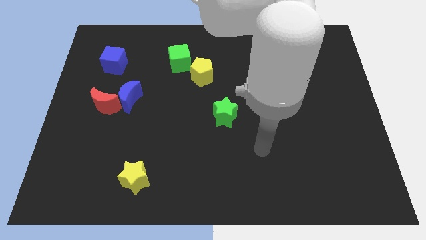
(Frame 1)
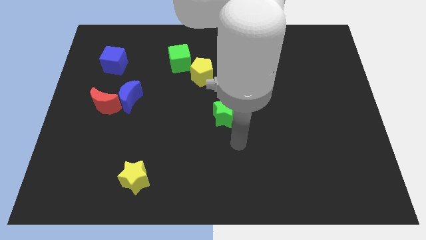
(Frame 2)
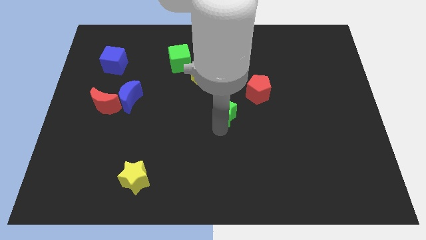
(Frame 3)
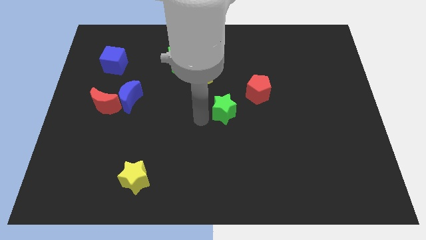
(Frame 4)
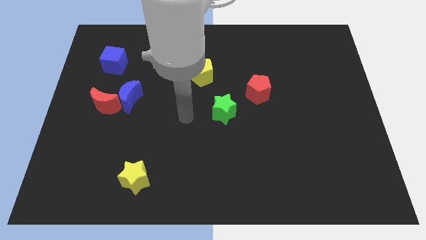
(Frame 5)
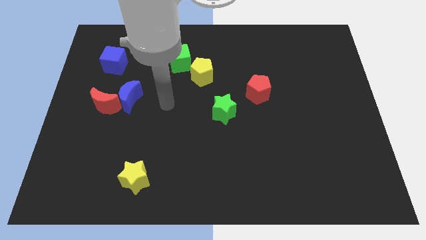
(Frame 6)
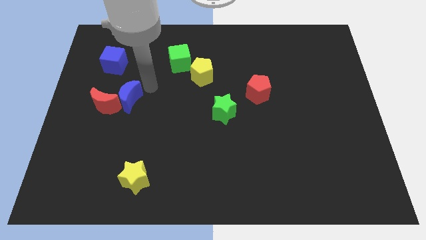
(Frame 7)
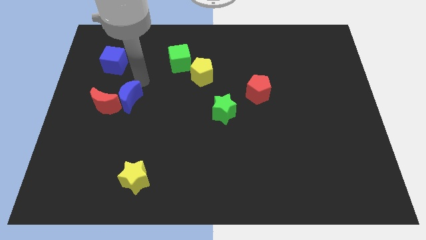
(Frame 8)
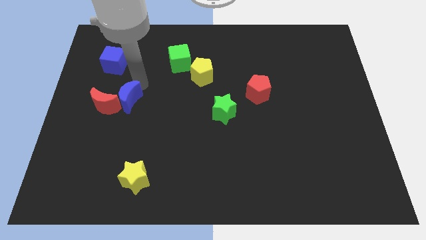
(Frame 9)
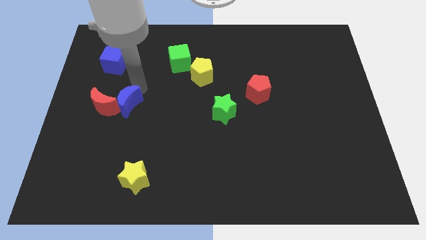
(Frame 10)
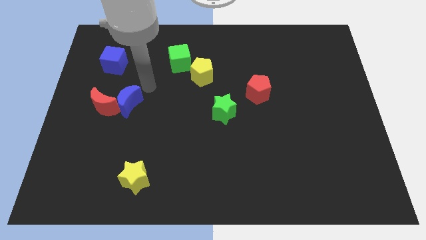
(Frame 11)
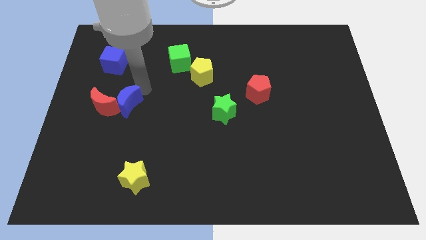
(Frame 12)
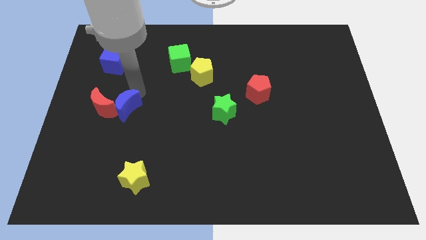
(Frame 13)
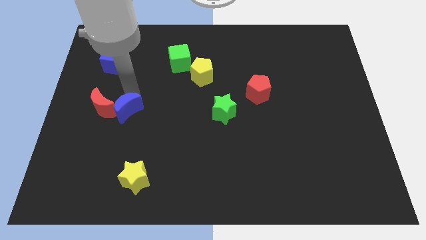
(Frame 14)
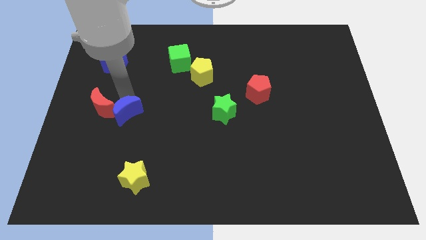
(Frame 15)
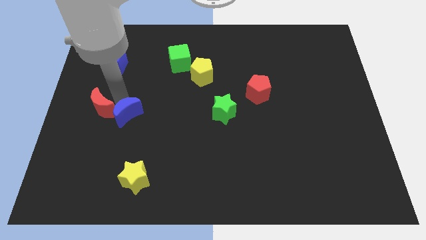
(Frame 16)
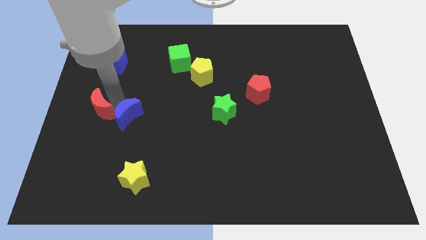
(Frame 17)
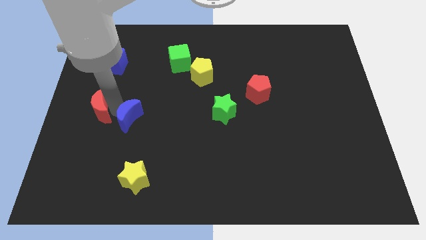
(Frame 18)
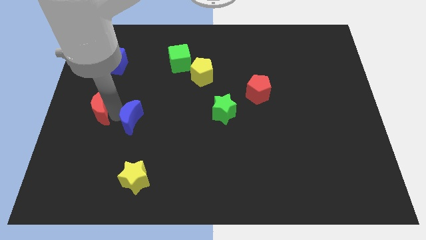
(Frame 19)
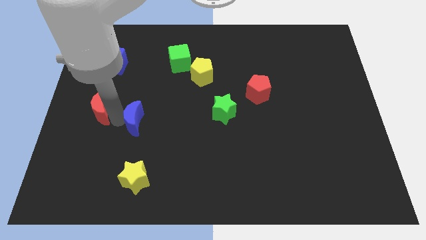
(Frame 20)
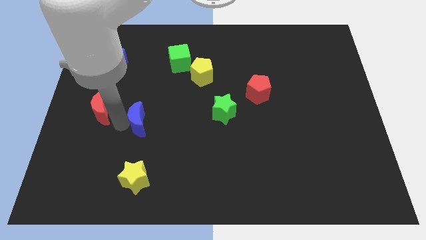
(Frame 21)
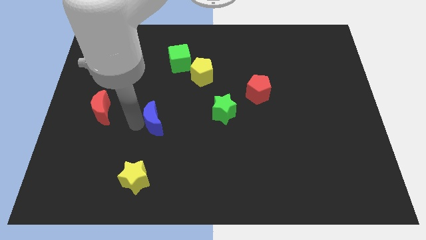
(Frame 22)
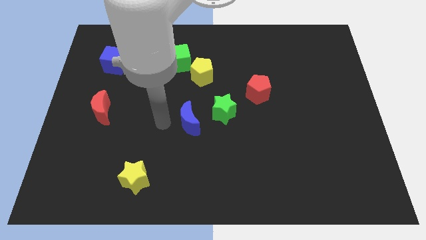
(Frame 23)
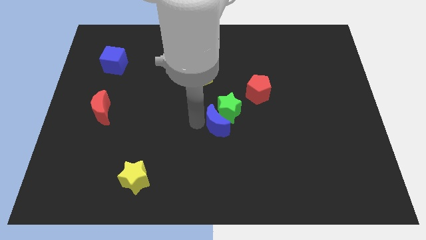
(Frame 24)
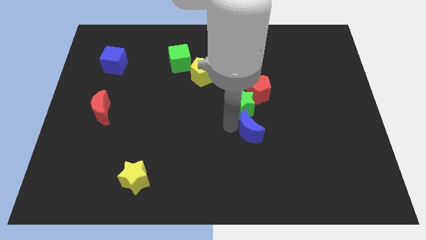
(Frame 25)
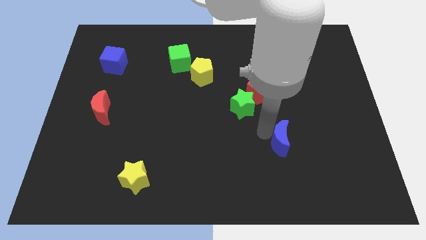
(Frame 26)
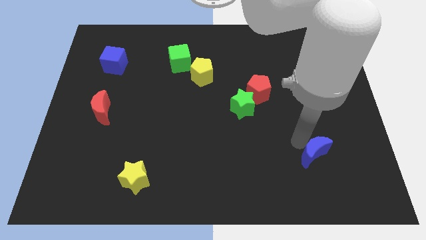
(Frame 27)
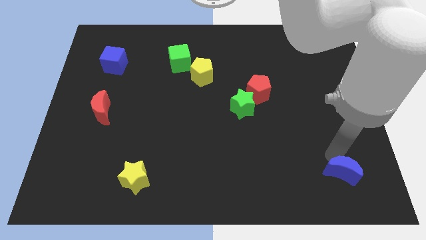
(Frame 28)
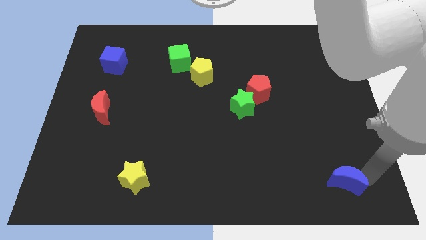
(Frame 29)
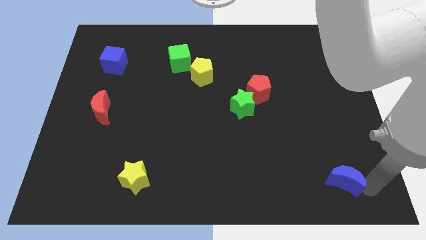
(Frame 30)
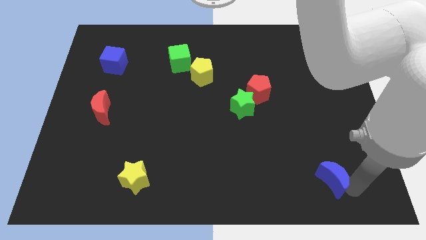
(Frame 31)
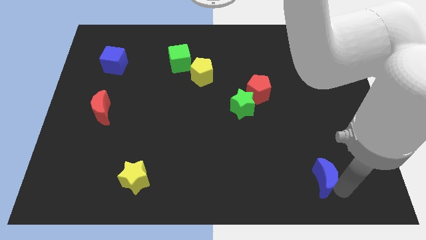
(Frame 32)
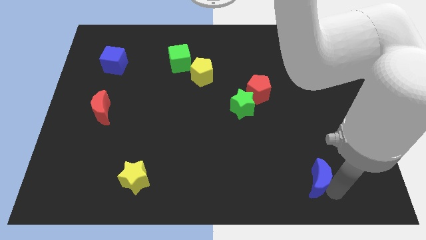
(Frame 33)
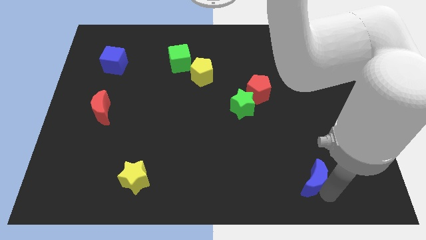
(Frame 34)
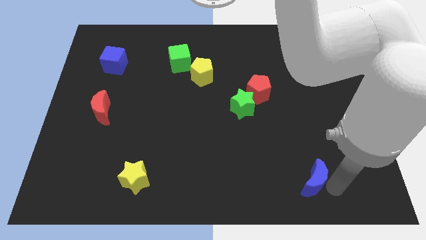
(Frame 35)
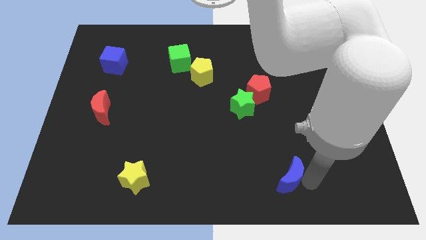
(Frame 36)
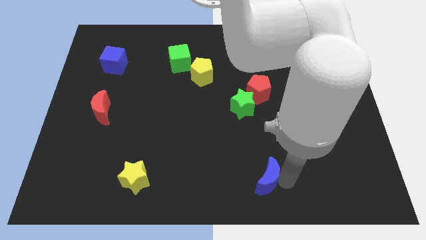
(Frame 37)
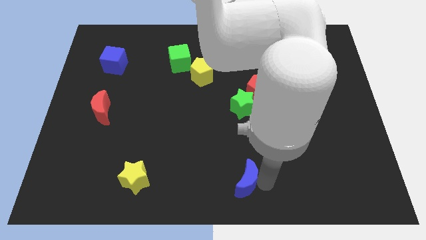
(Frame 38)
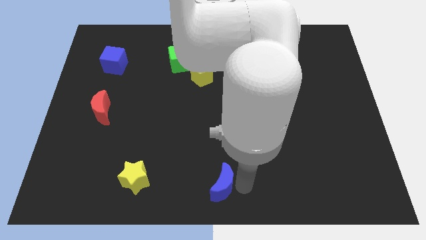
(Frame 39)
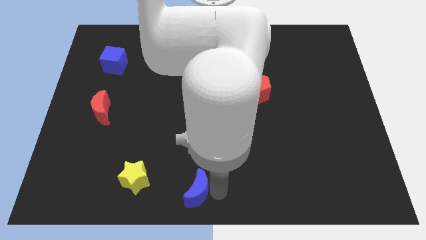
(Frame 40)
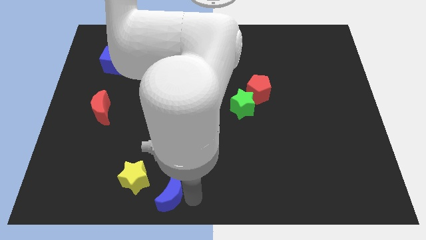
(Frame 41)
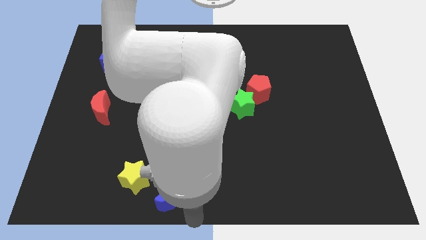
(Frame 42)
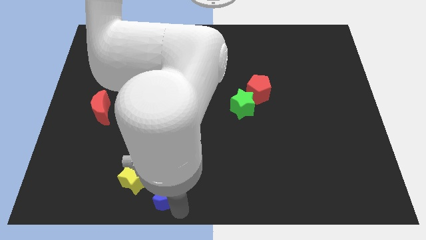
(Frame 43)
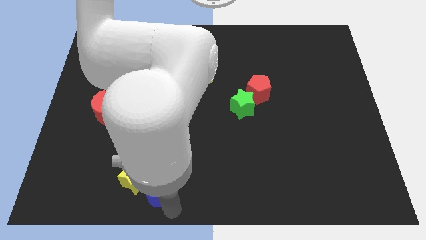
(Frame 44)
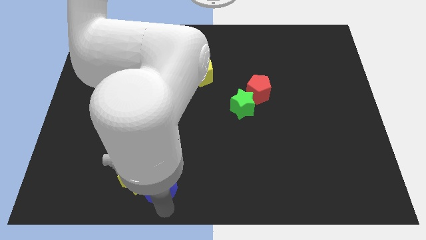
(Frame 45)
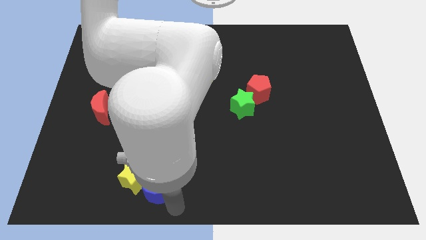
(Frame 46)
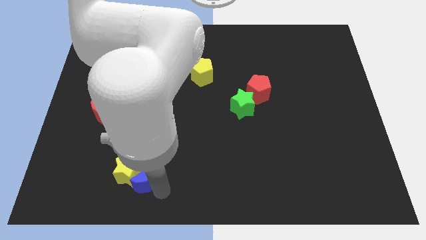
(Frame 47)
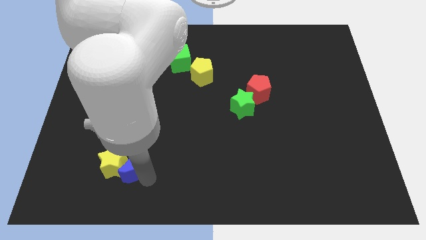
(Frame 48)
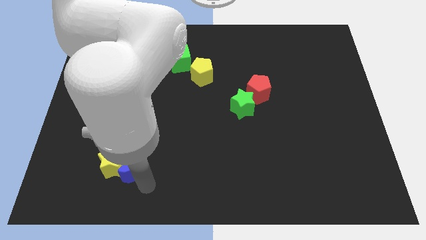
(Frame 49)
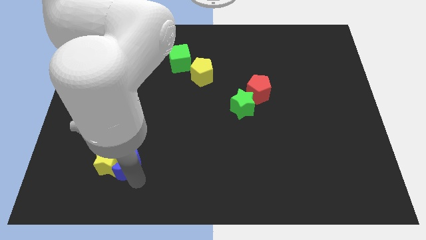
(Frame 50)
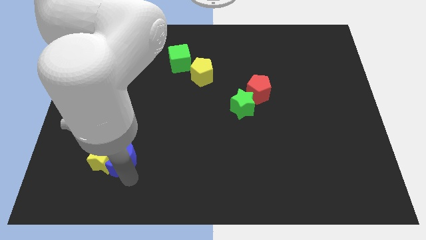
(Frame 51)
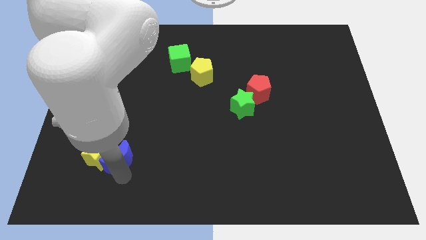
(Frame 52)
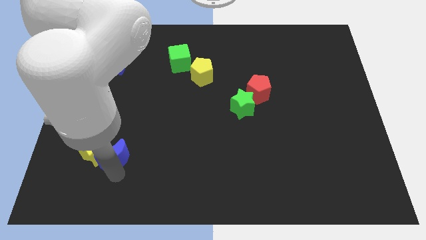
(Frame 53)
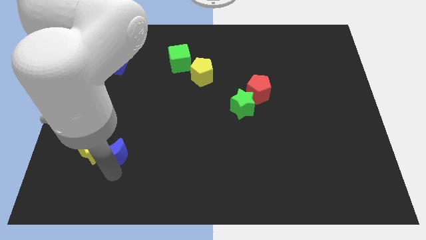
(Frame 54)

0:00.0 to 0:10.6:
push the blue moon below the red moon

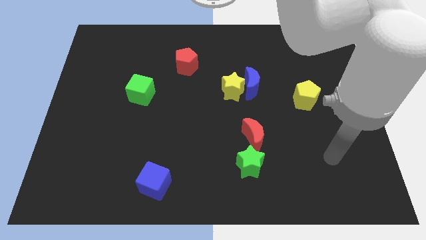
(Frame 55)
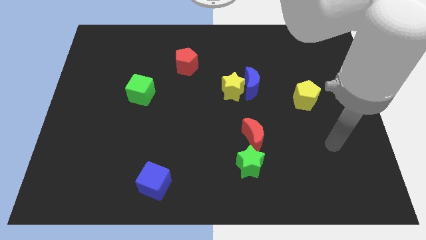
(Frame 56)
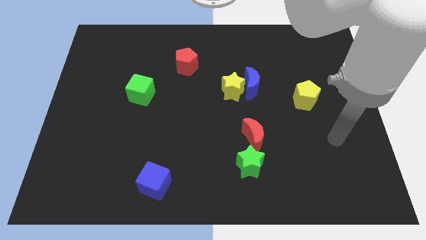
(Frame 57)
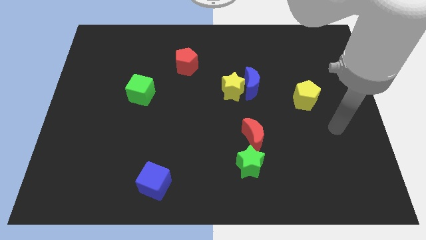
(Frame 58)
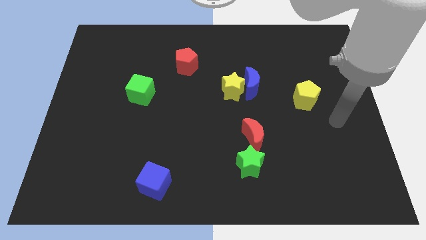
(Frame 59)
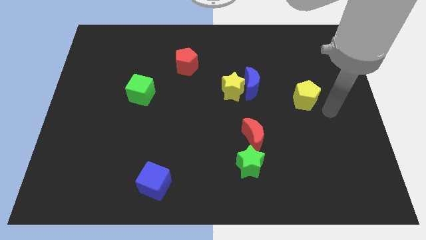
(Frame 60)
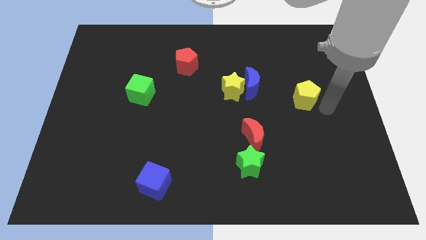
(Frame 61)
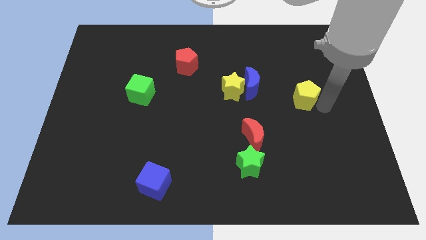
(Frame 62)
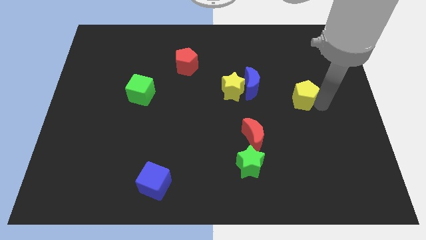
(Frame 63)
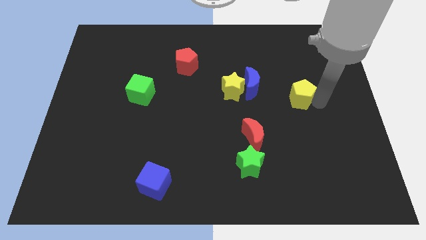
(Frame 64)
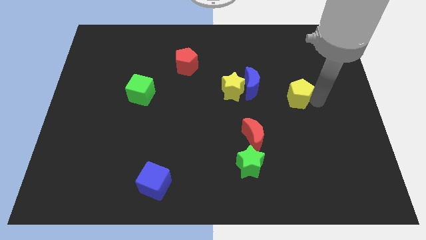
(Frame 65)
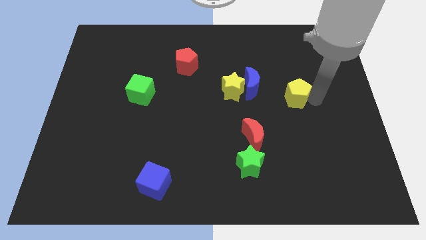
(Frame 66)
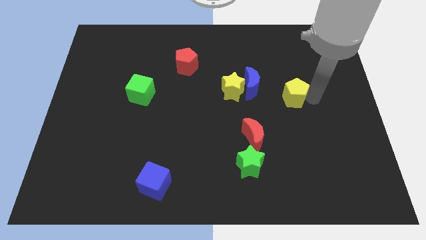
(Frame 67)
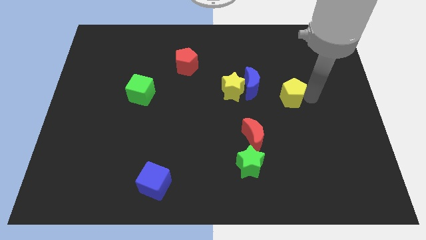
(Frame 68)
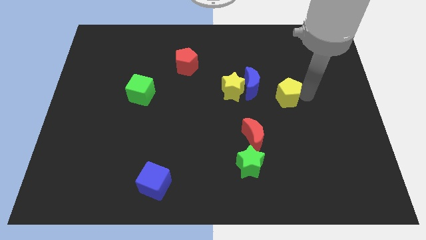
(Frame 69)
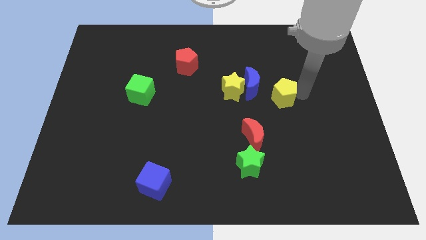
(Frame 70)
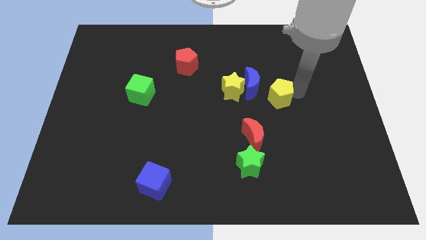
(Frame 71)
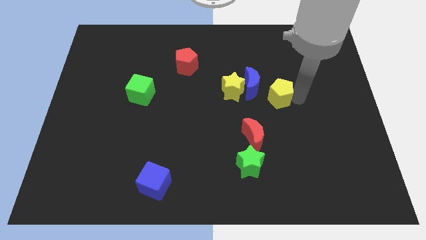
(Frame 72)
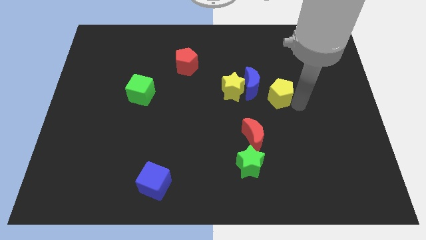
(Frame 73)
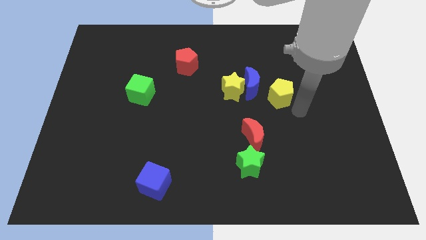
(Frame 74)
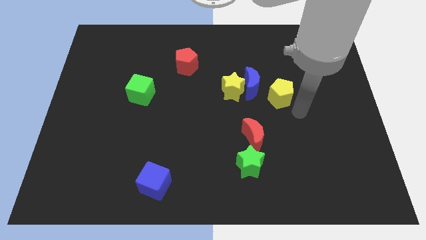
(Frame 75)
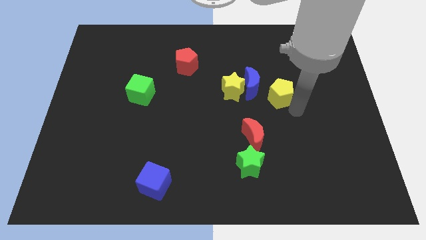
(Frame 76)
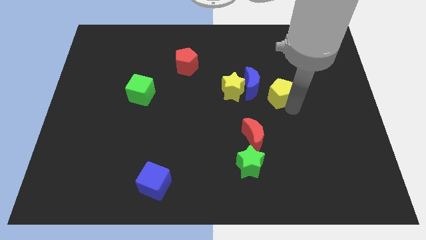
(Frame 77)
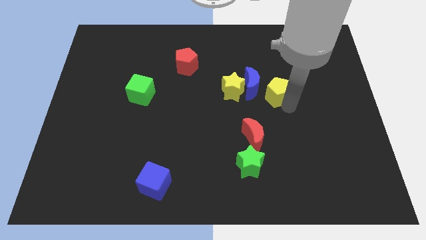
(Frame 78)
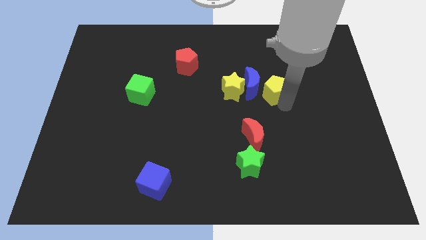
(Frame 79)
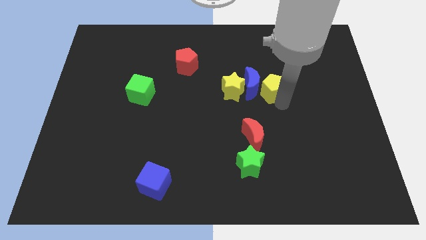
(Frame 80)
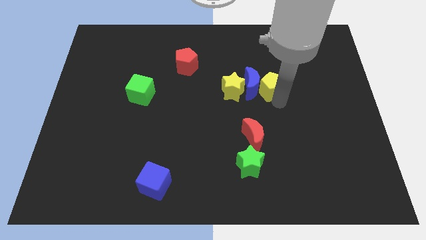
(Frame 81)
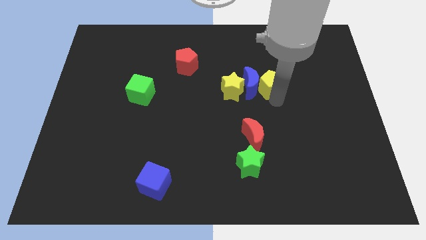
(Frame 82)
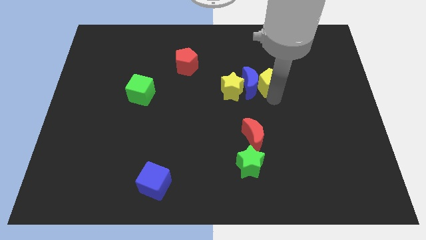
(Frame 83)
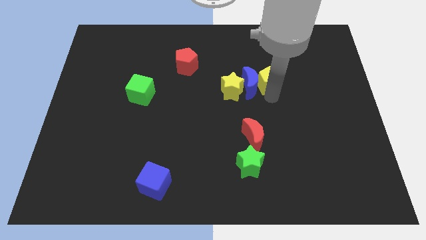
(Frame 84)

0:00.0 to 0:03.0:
move the yellow pentagon to the top right side of the yellow star

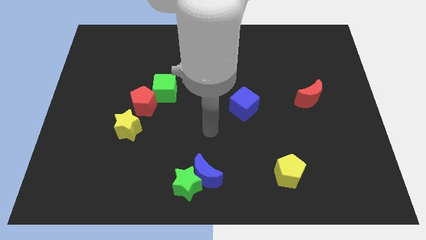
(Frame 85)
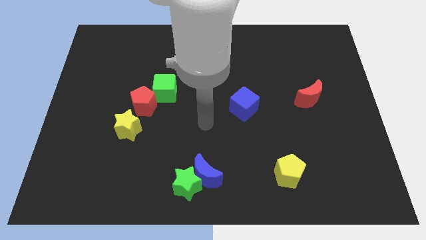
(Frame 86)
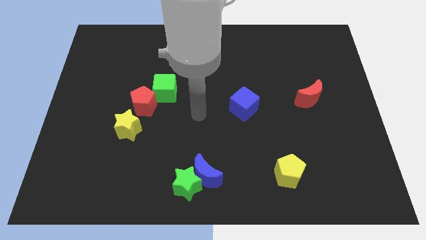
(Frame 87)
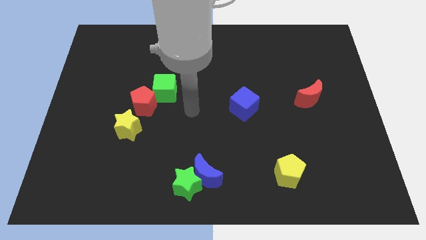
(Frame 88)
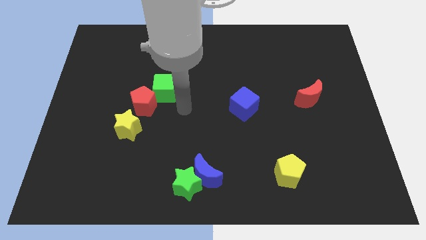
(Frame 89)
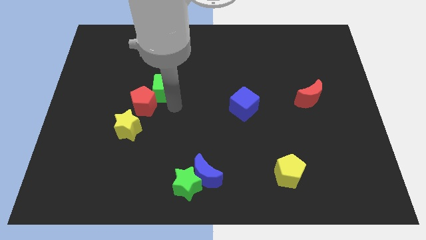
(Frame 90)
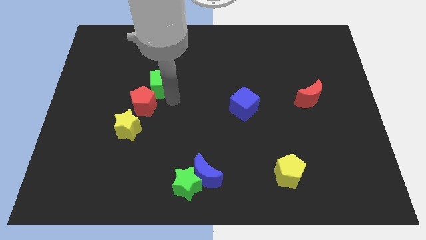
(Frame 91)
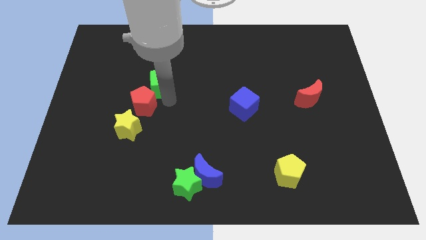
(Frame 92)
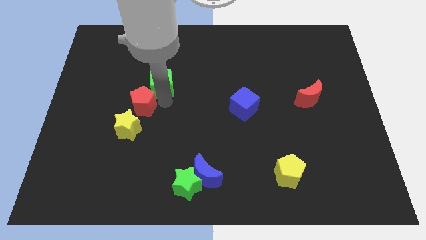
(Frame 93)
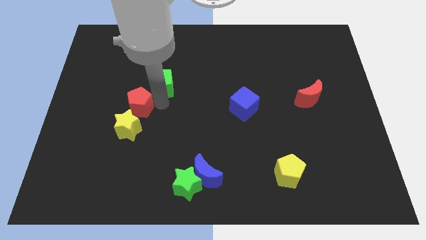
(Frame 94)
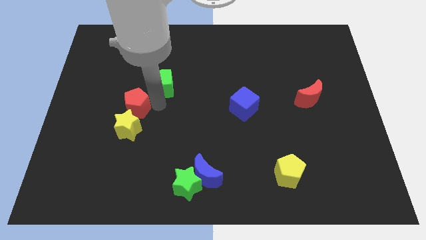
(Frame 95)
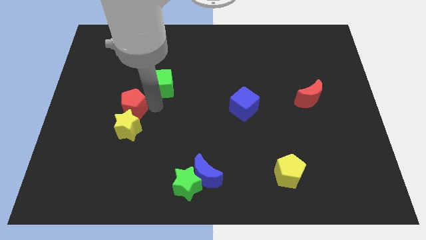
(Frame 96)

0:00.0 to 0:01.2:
push the red pentagon to the top left side of the yellow star
